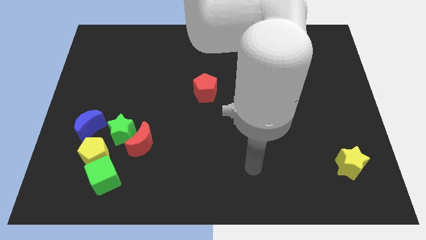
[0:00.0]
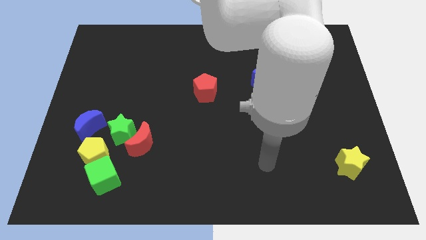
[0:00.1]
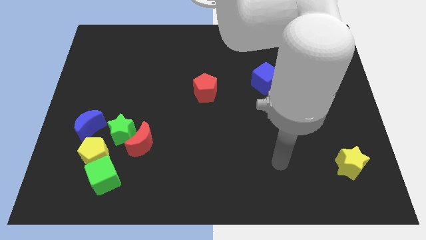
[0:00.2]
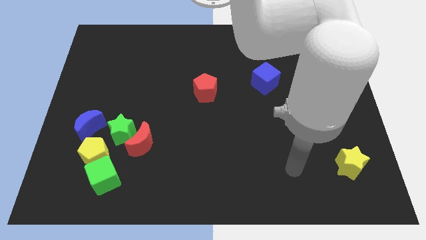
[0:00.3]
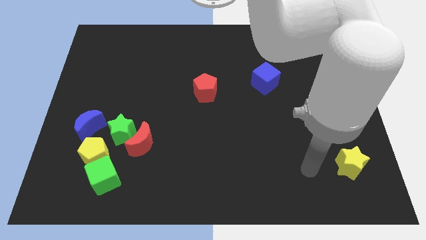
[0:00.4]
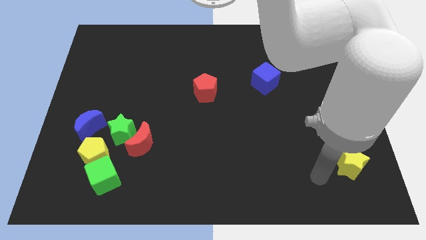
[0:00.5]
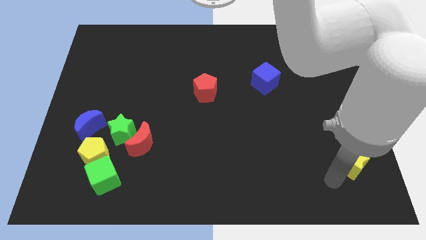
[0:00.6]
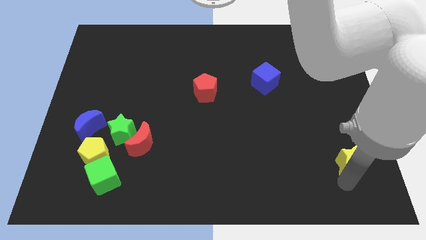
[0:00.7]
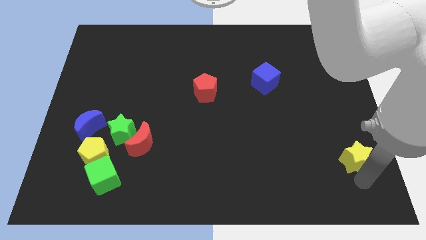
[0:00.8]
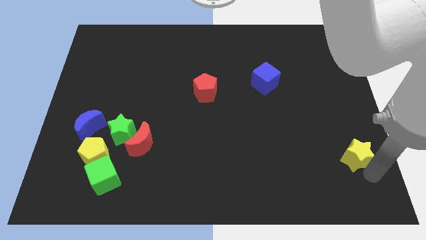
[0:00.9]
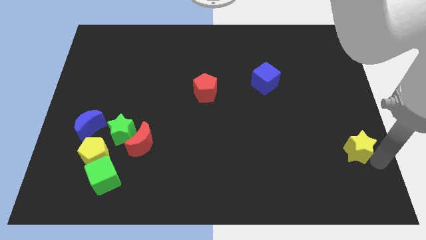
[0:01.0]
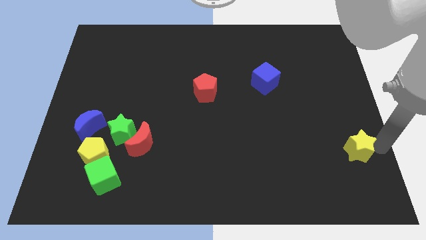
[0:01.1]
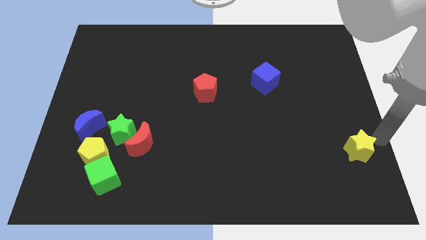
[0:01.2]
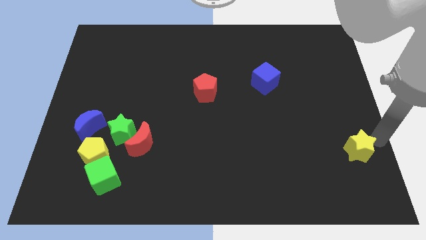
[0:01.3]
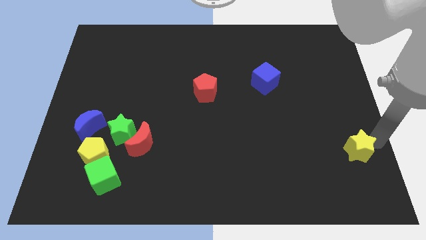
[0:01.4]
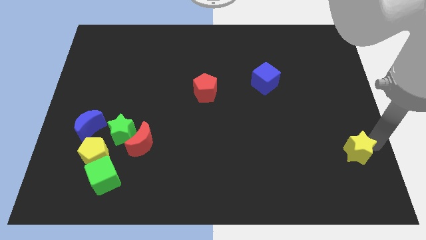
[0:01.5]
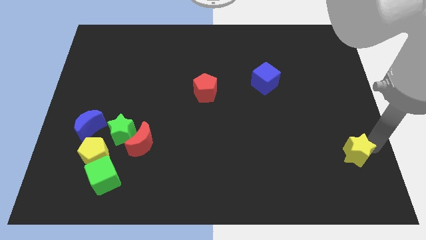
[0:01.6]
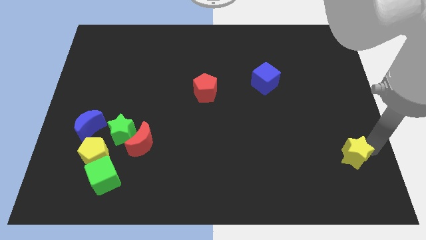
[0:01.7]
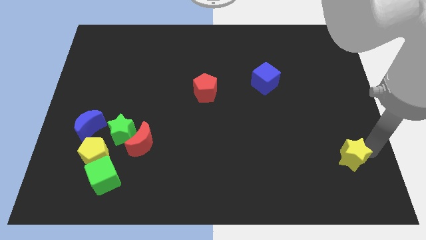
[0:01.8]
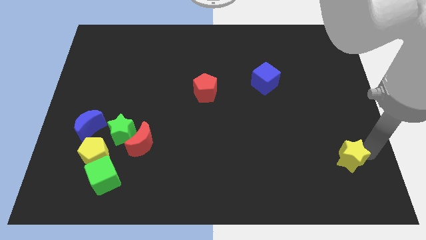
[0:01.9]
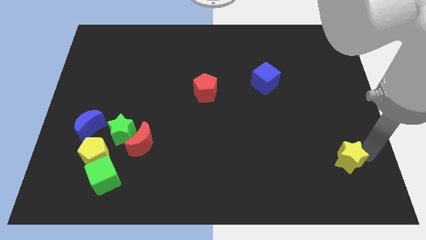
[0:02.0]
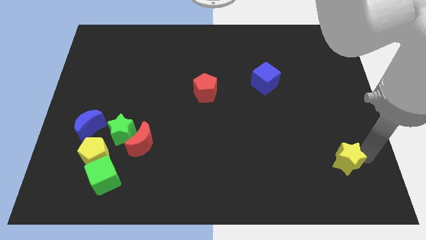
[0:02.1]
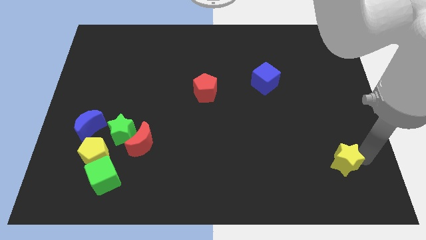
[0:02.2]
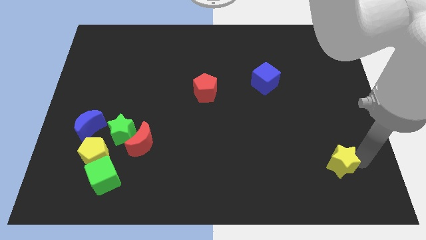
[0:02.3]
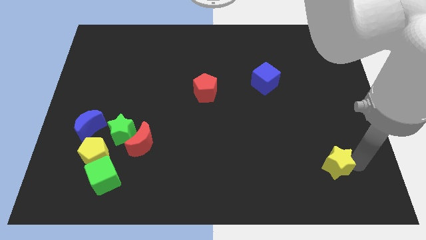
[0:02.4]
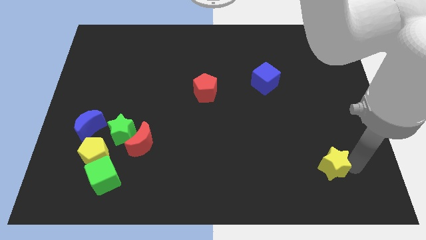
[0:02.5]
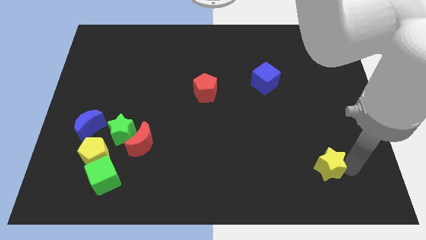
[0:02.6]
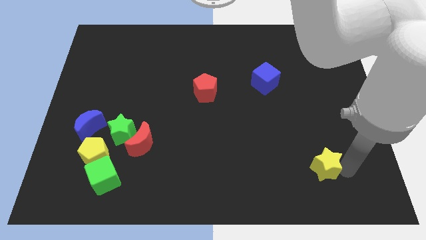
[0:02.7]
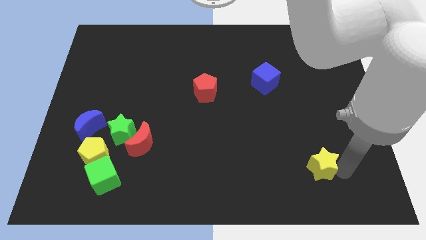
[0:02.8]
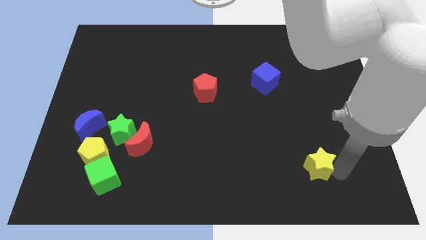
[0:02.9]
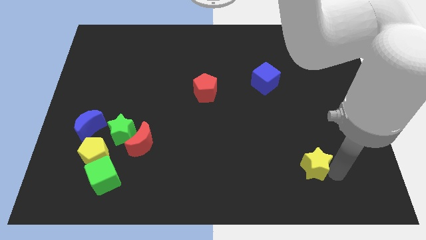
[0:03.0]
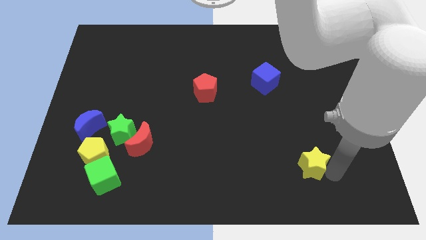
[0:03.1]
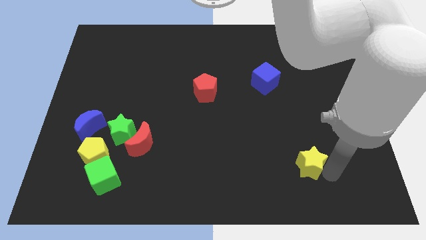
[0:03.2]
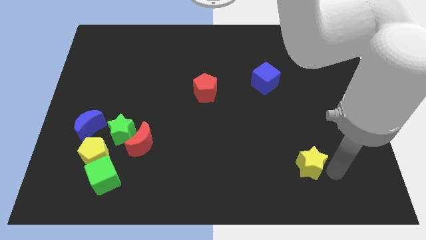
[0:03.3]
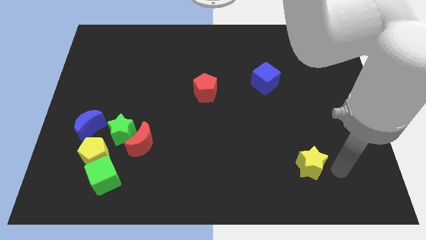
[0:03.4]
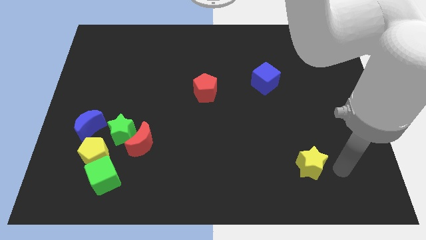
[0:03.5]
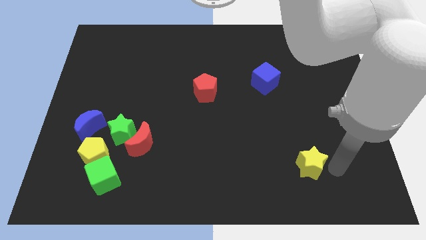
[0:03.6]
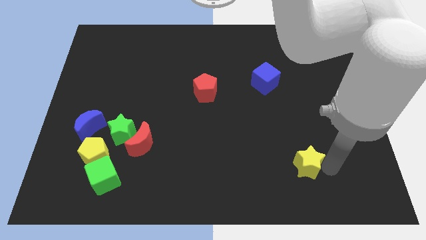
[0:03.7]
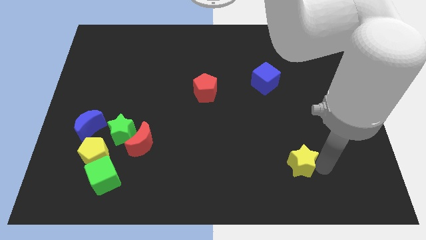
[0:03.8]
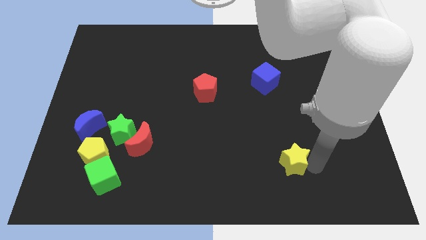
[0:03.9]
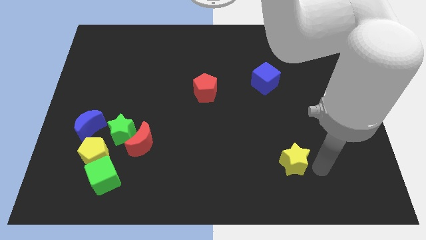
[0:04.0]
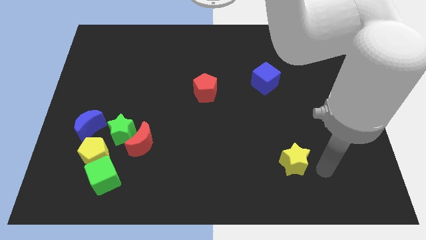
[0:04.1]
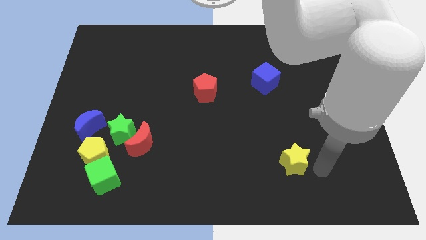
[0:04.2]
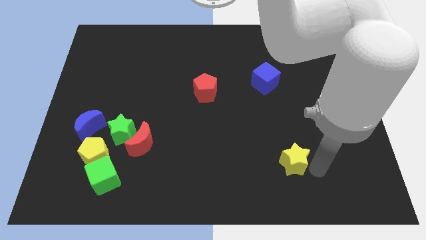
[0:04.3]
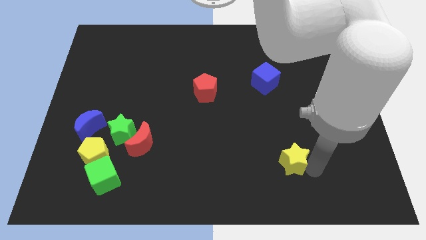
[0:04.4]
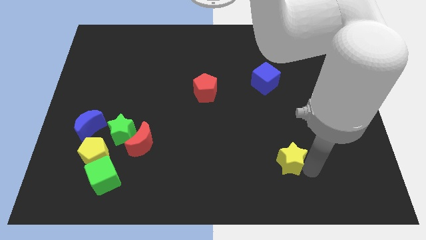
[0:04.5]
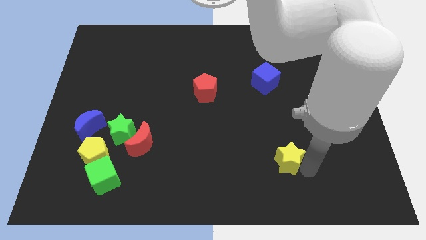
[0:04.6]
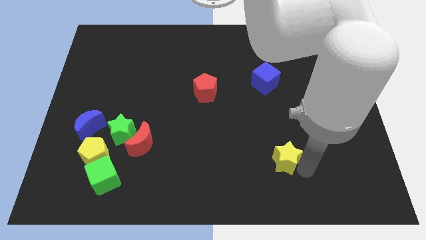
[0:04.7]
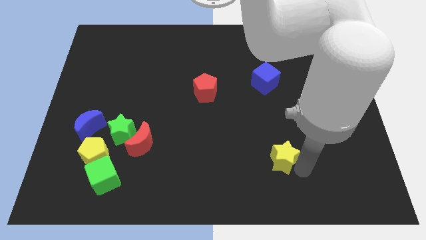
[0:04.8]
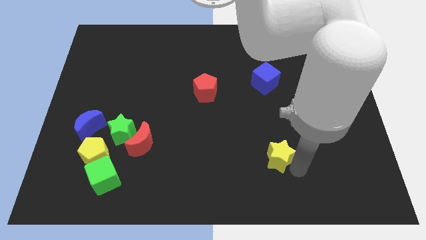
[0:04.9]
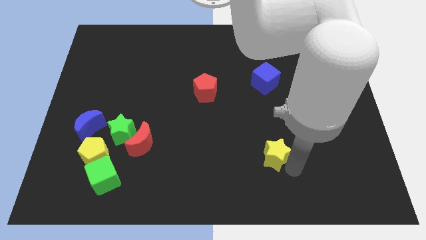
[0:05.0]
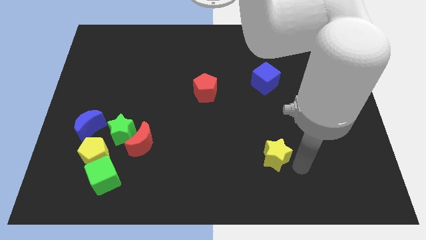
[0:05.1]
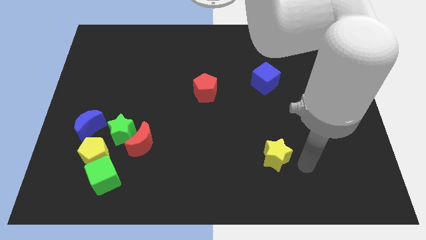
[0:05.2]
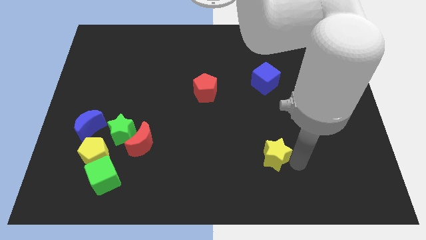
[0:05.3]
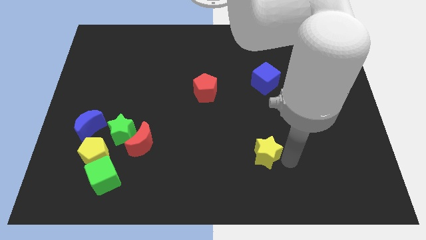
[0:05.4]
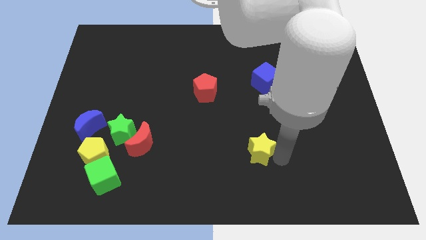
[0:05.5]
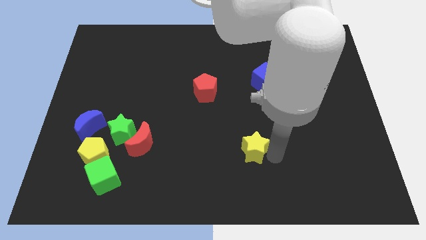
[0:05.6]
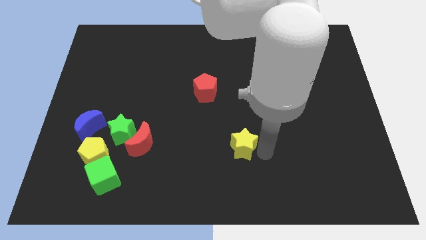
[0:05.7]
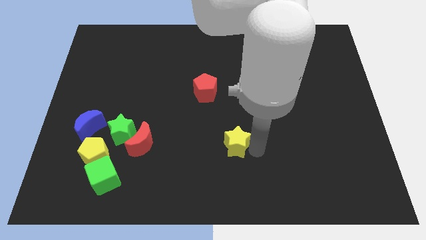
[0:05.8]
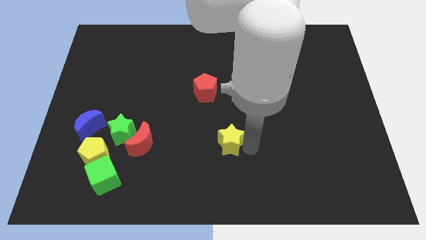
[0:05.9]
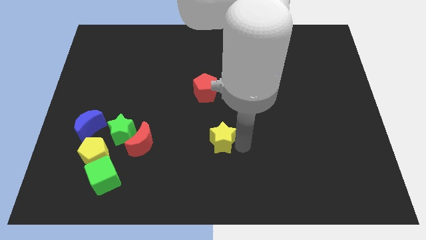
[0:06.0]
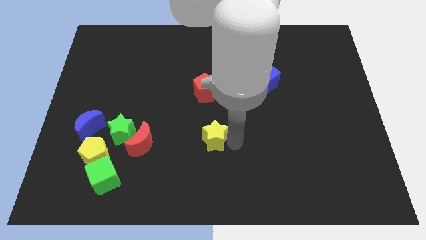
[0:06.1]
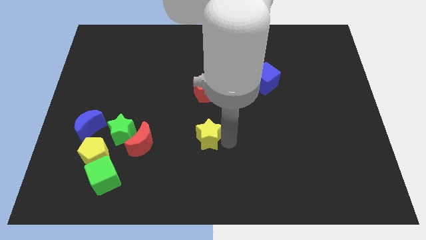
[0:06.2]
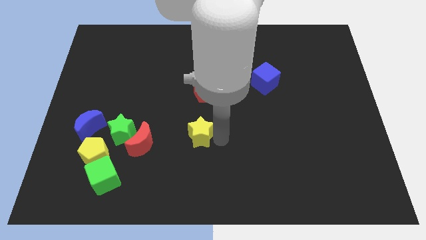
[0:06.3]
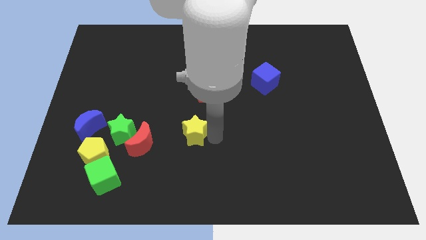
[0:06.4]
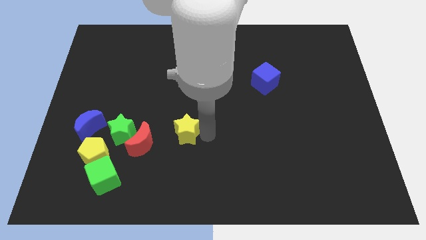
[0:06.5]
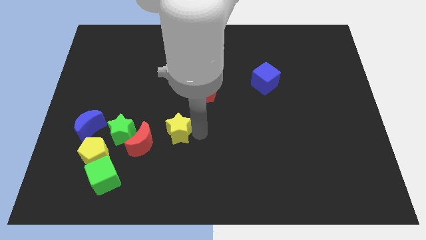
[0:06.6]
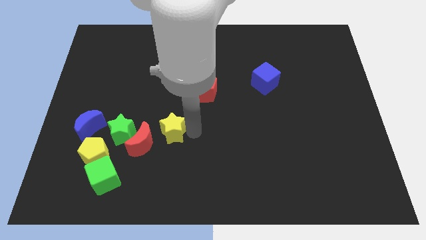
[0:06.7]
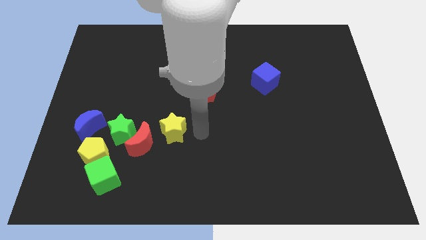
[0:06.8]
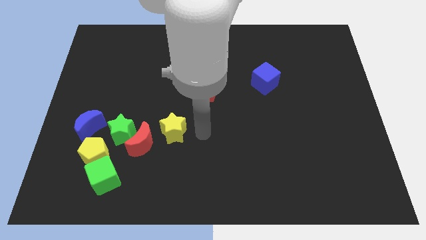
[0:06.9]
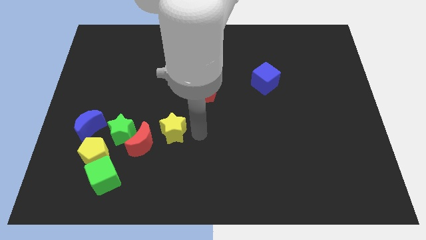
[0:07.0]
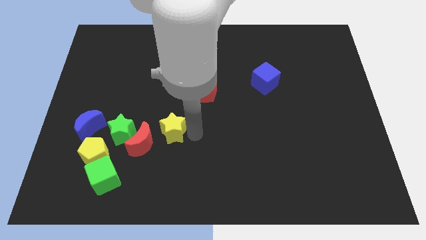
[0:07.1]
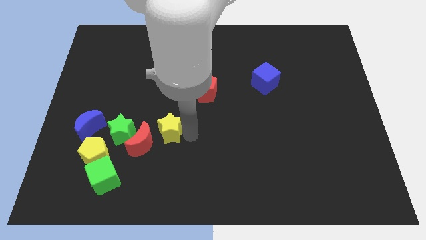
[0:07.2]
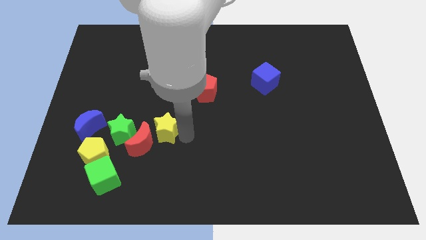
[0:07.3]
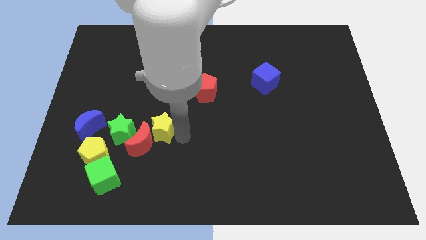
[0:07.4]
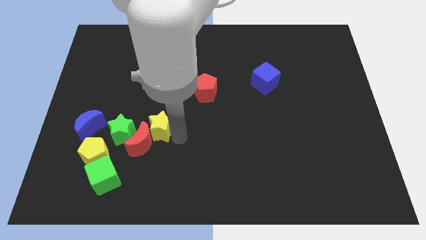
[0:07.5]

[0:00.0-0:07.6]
put the yellow star right of the blue moon
